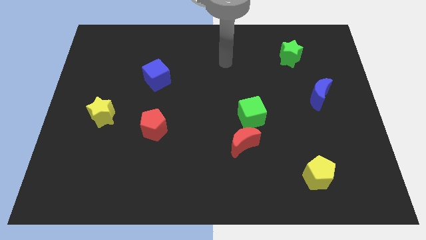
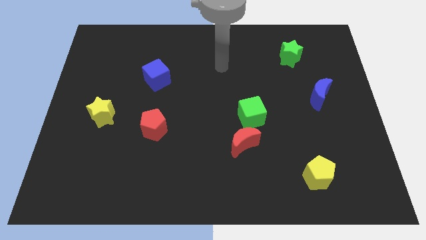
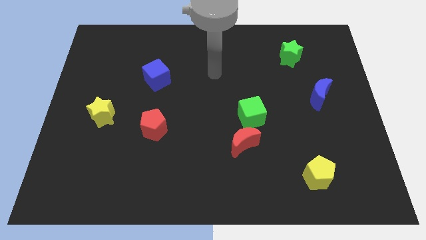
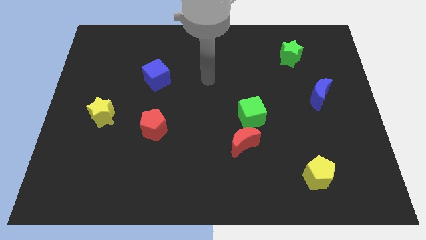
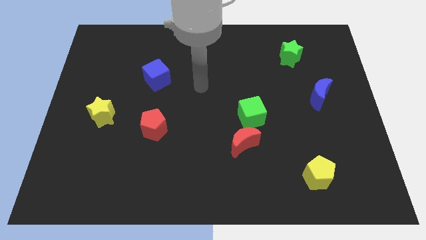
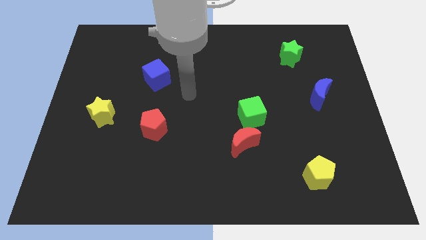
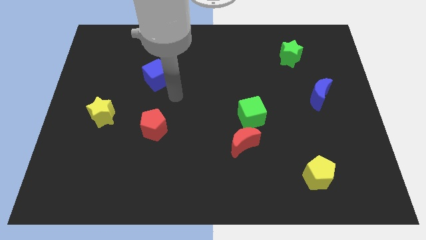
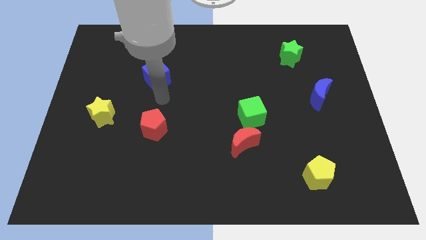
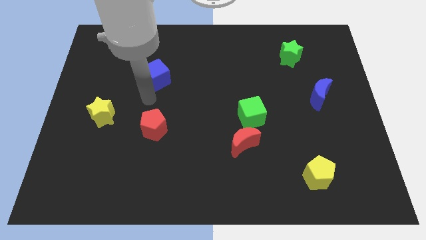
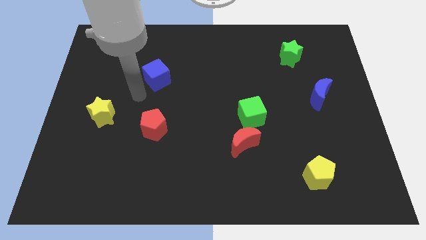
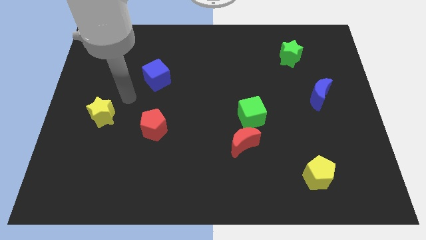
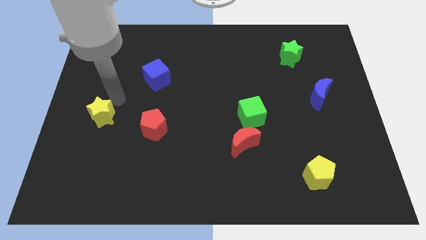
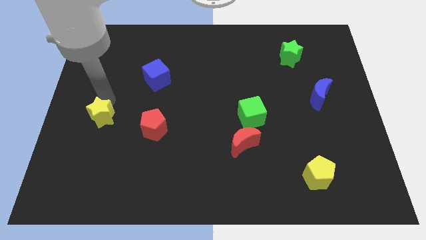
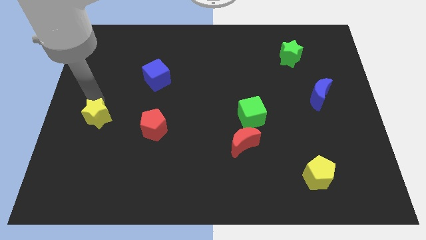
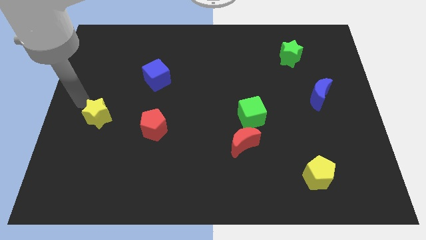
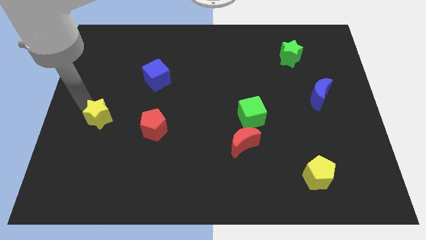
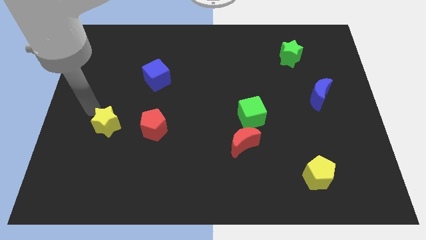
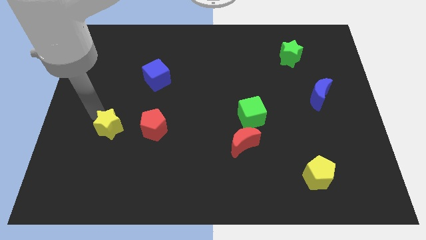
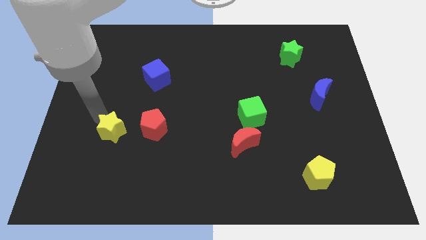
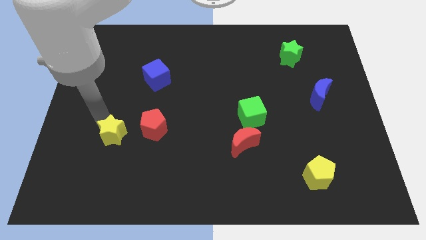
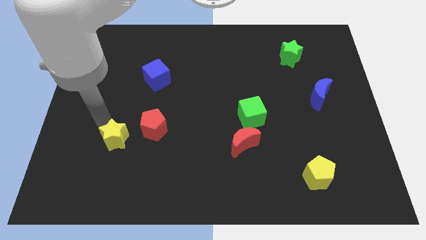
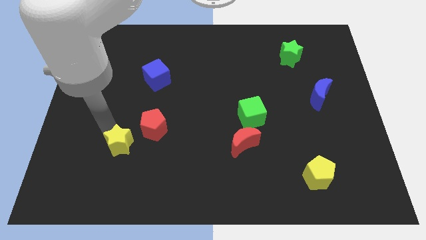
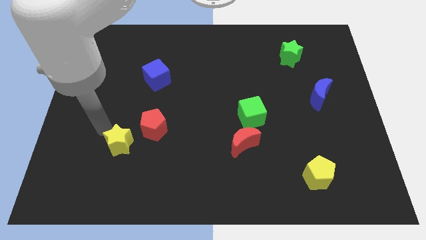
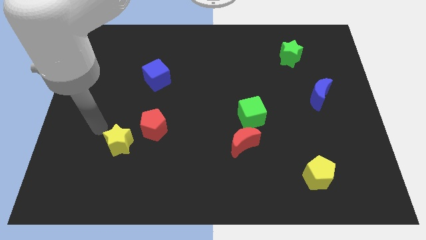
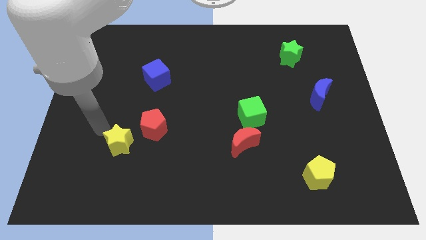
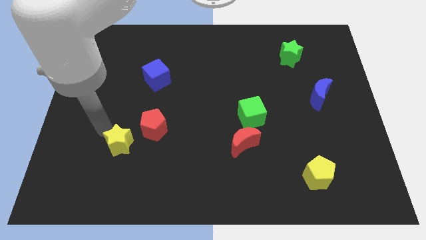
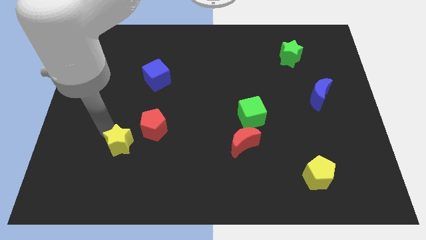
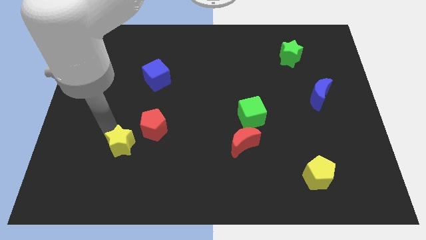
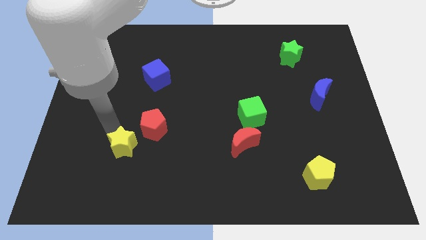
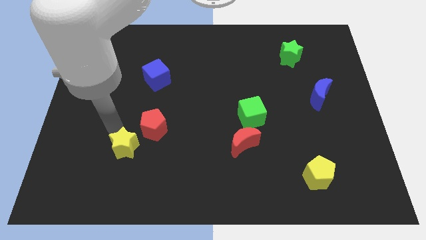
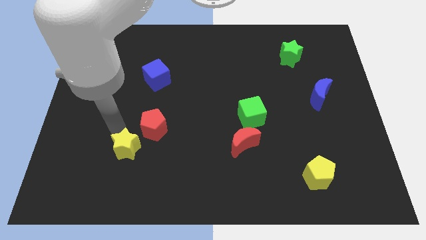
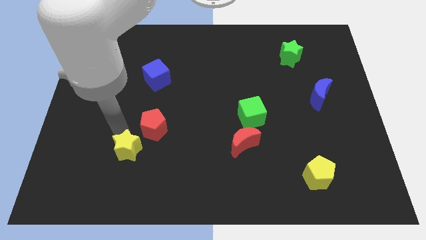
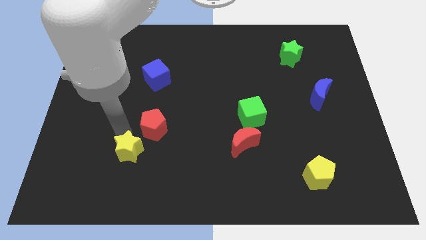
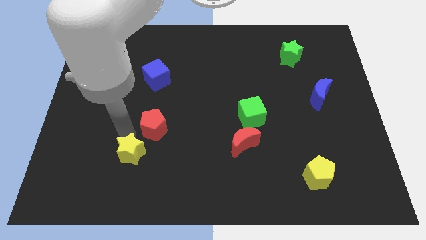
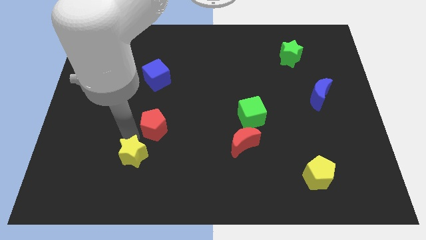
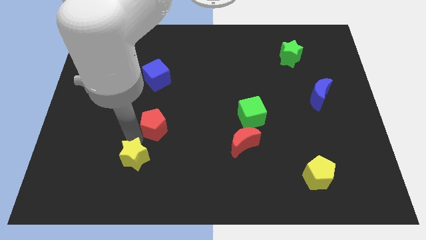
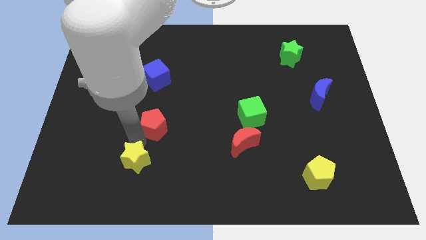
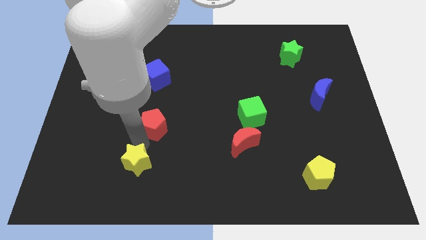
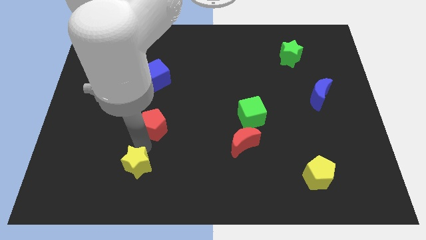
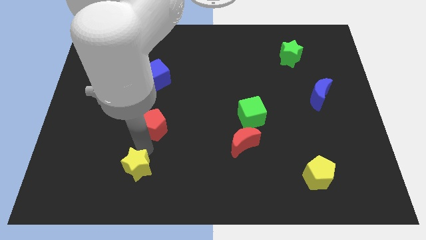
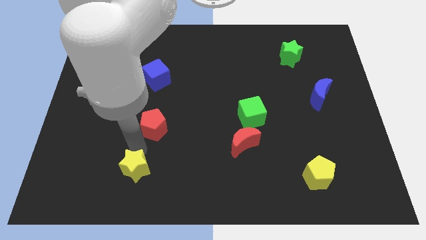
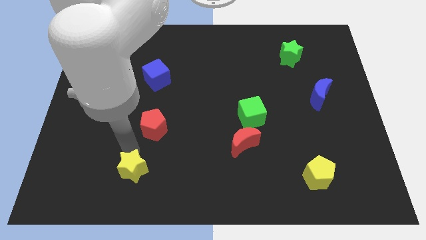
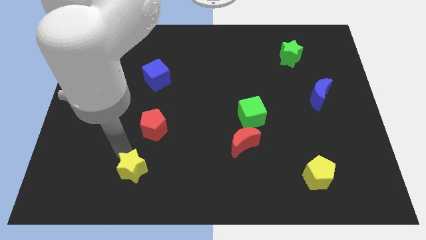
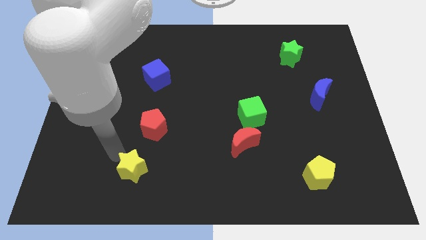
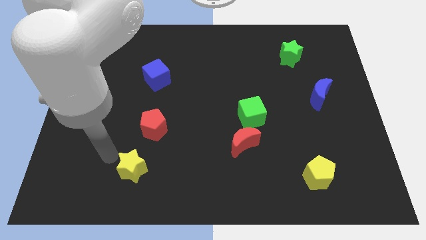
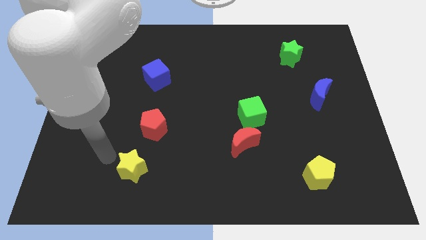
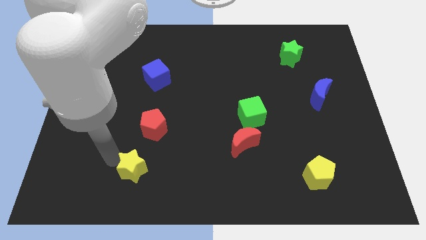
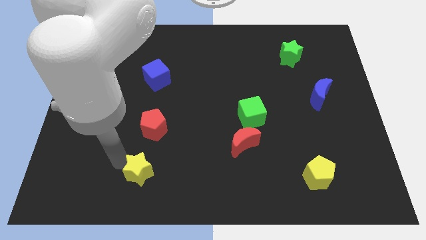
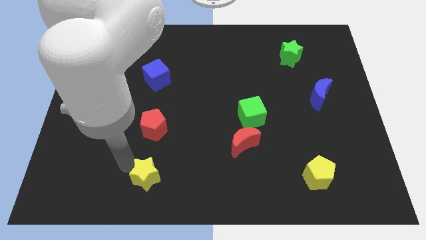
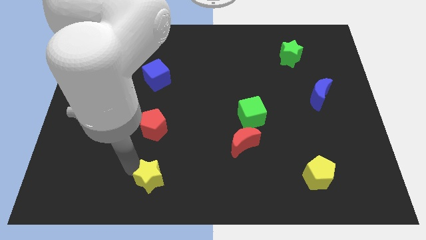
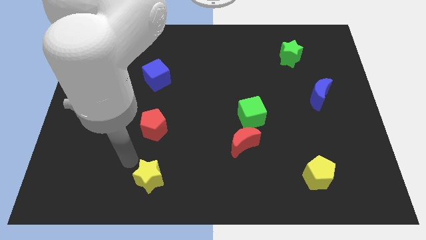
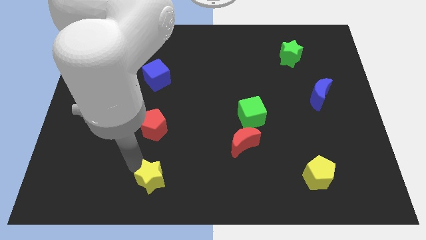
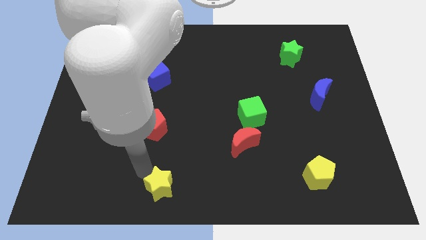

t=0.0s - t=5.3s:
move the yellow star to the bottom

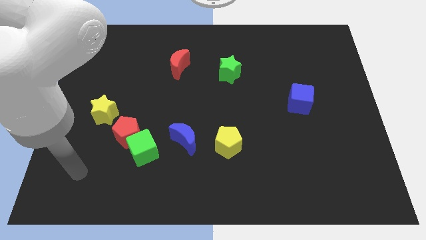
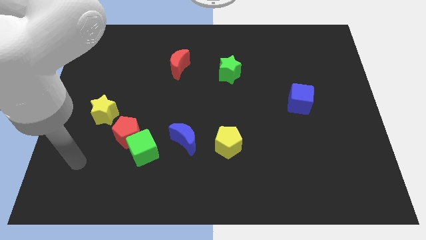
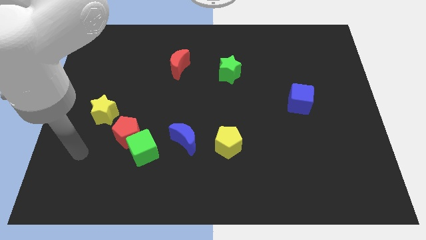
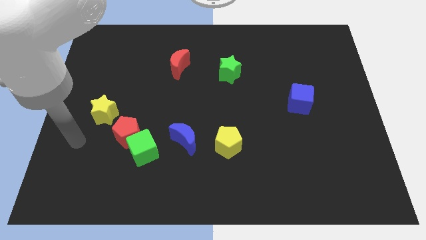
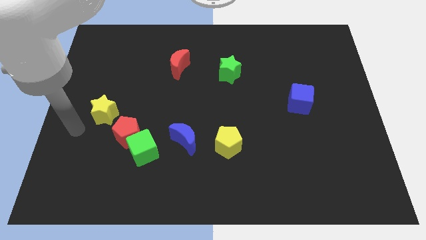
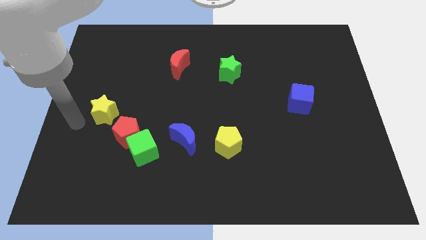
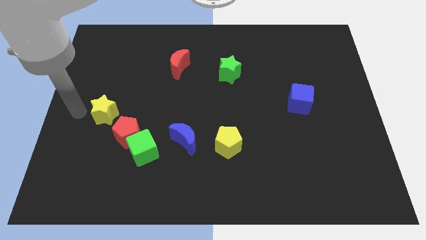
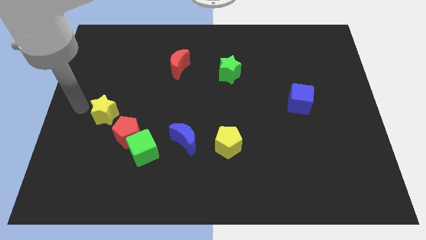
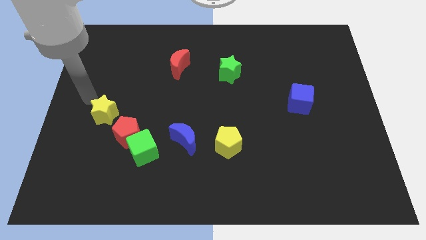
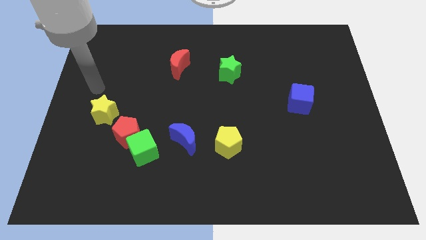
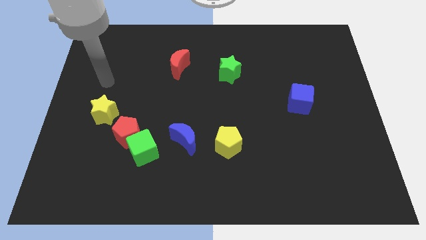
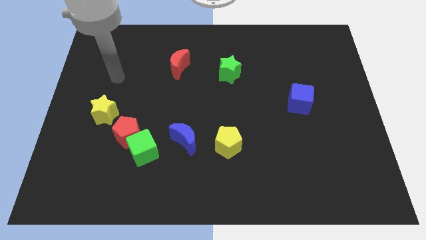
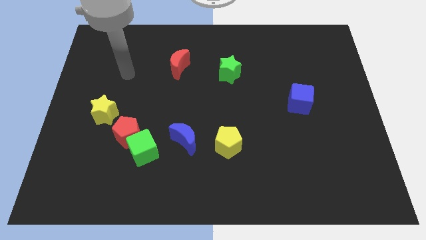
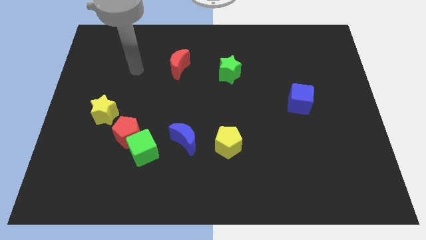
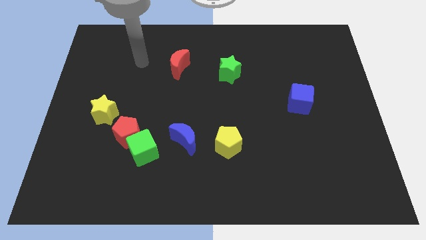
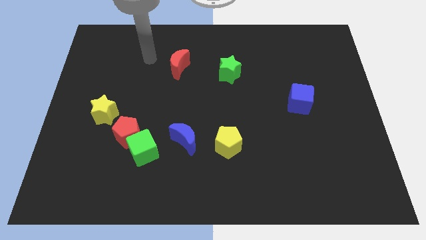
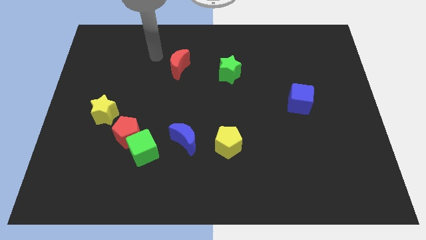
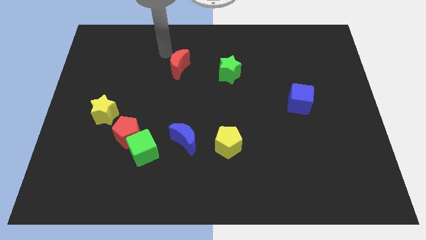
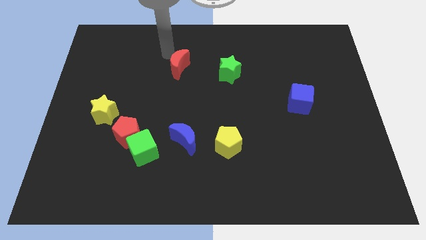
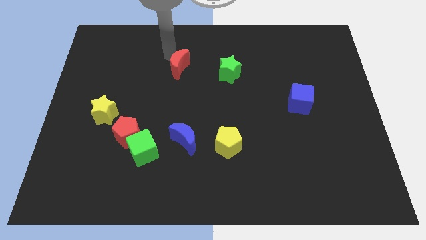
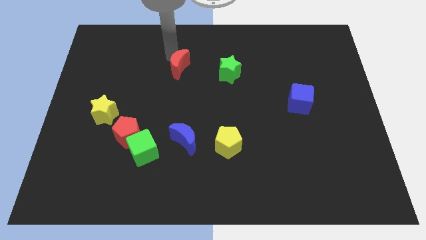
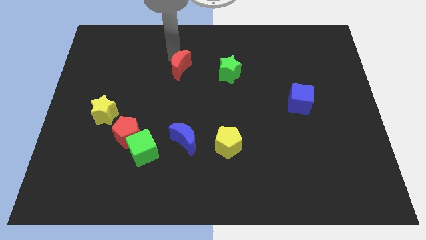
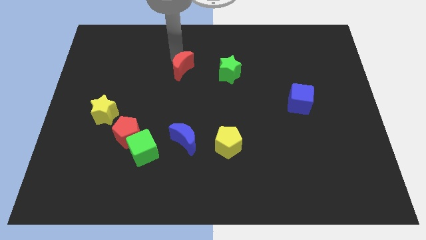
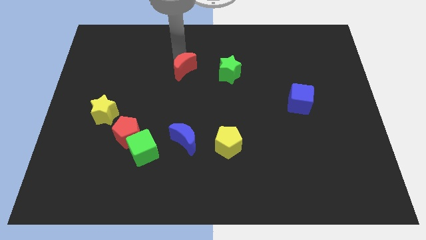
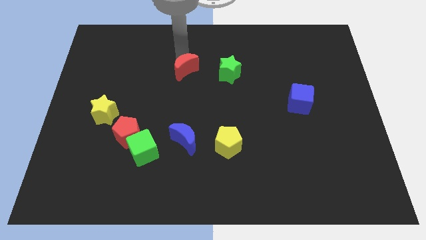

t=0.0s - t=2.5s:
move the red moon to the middle of the board
